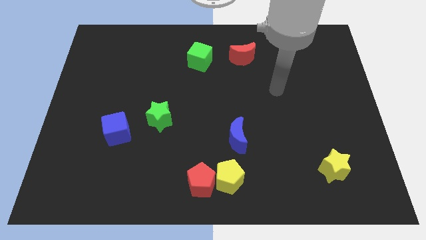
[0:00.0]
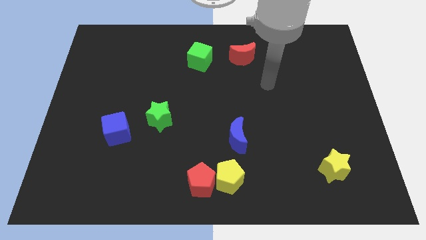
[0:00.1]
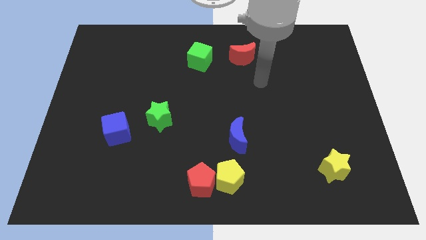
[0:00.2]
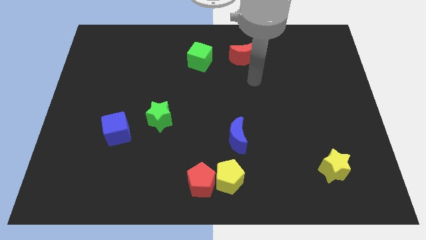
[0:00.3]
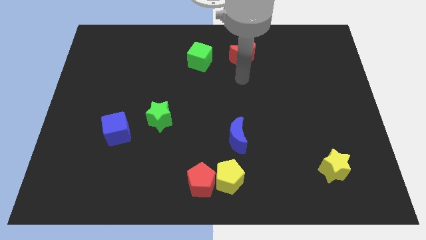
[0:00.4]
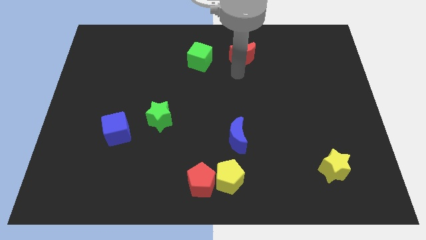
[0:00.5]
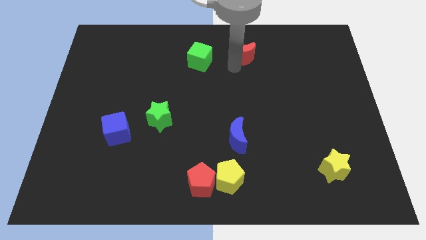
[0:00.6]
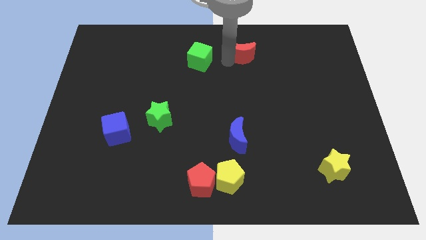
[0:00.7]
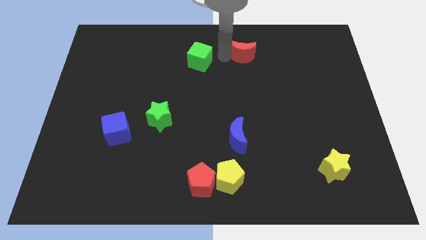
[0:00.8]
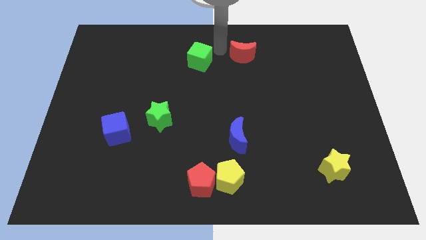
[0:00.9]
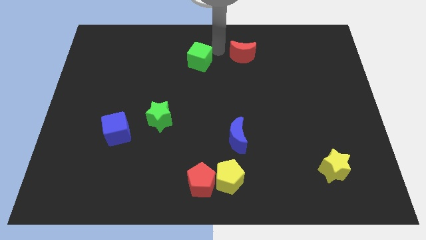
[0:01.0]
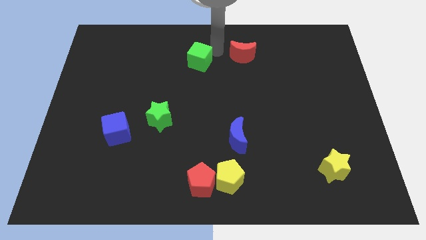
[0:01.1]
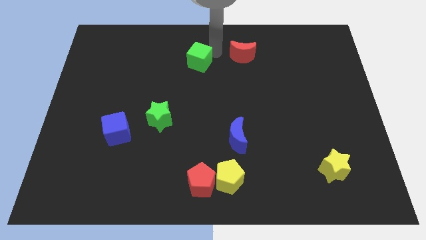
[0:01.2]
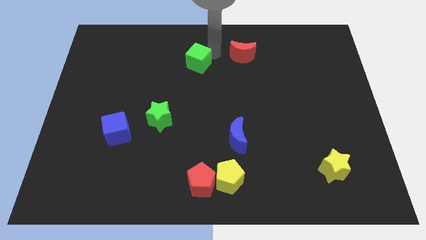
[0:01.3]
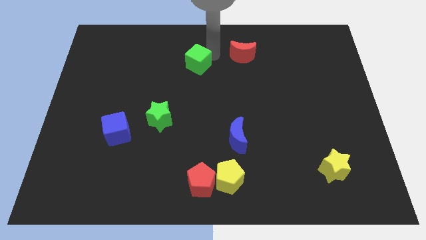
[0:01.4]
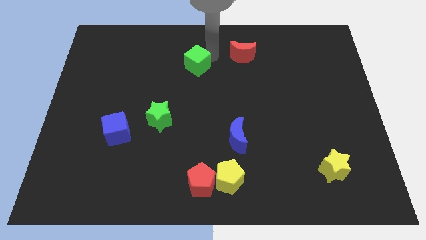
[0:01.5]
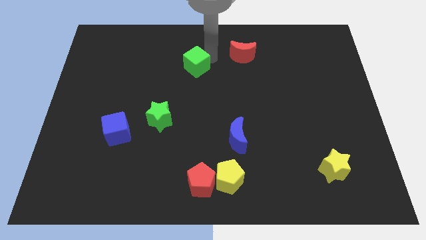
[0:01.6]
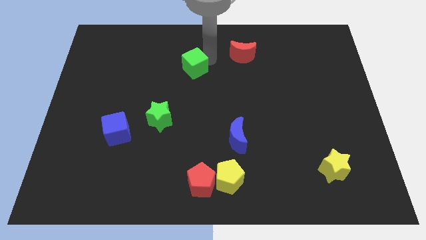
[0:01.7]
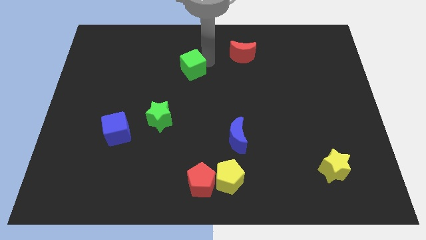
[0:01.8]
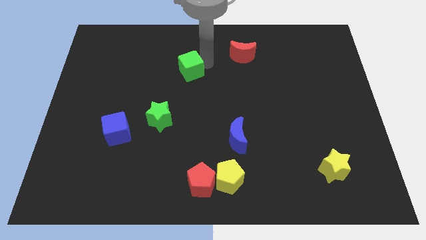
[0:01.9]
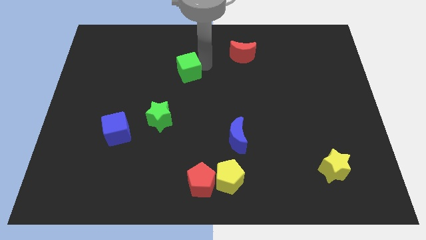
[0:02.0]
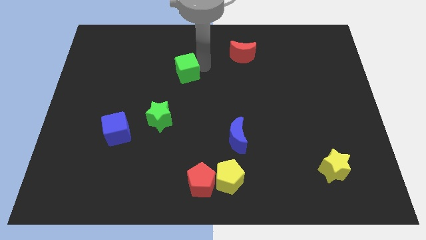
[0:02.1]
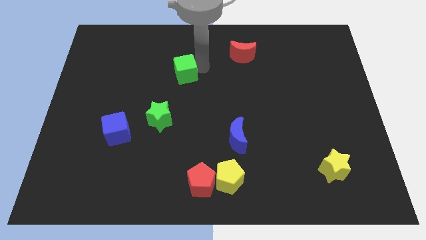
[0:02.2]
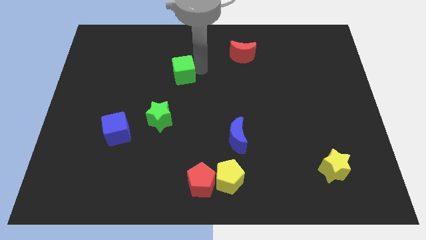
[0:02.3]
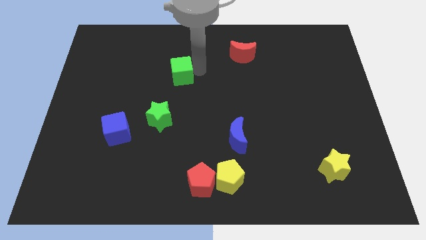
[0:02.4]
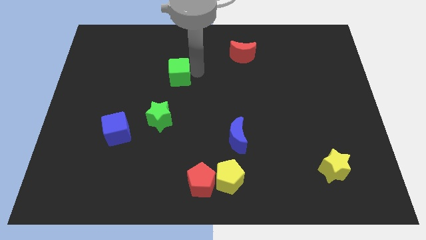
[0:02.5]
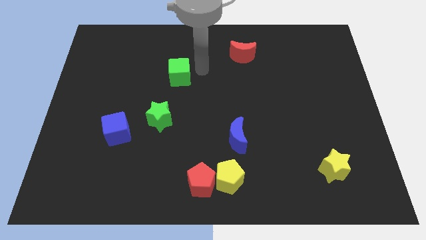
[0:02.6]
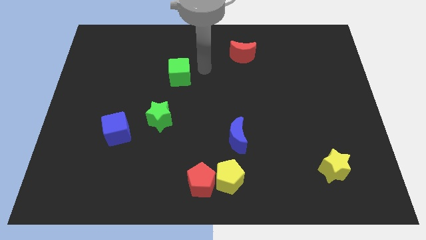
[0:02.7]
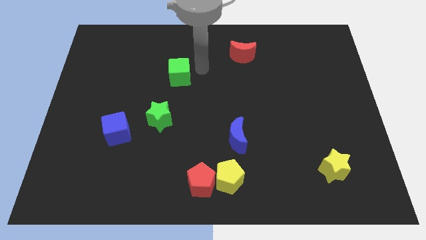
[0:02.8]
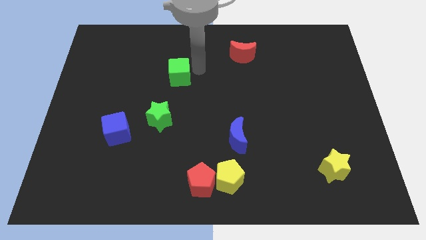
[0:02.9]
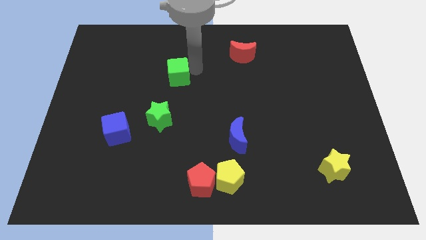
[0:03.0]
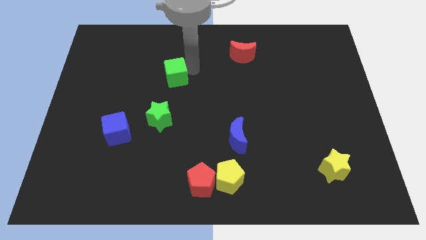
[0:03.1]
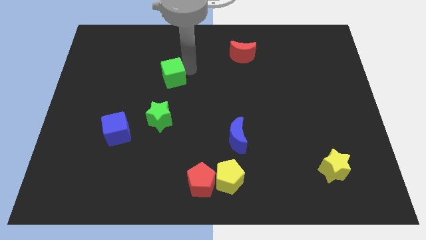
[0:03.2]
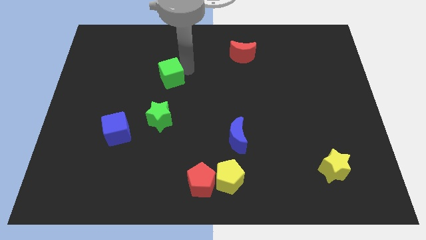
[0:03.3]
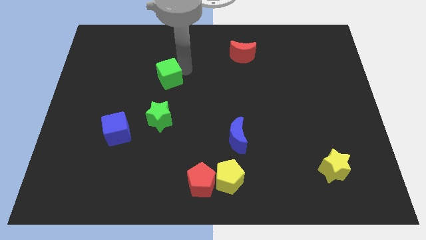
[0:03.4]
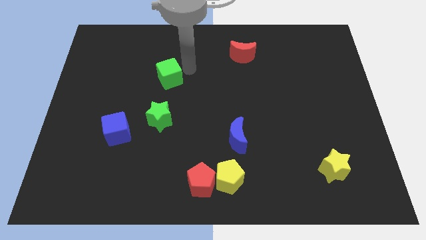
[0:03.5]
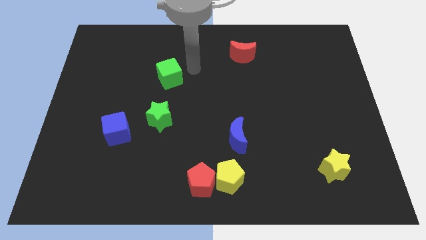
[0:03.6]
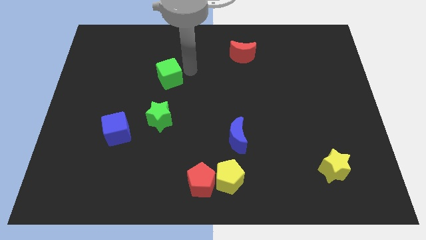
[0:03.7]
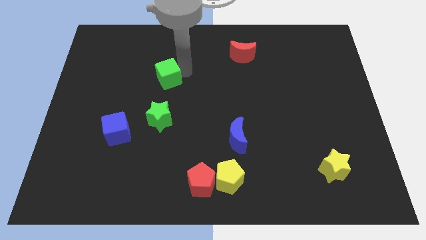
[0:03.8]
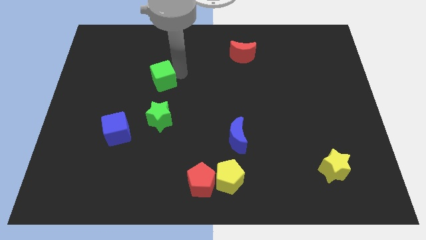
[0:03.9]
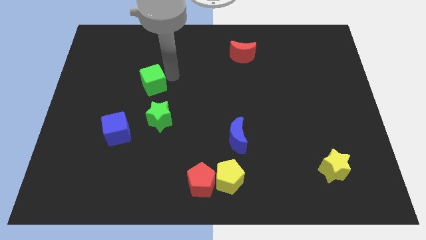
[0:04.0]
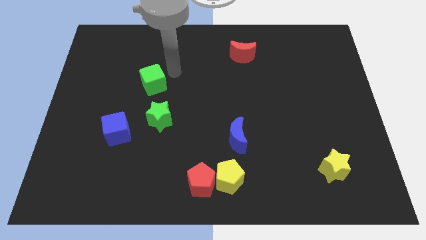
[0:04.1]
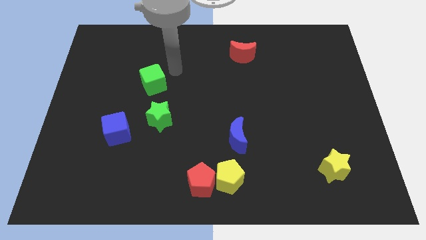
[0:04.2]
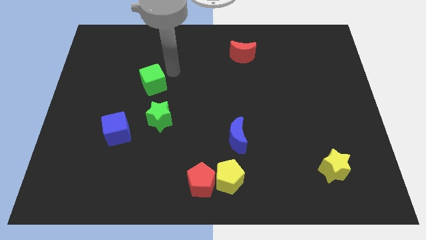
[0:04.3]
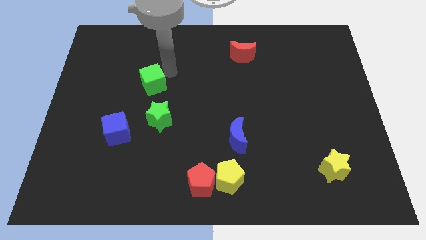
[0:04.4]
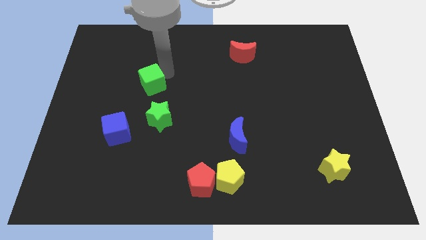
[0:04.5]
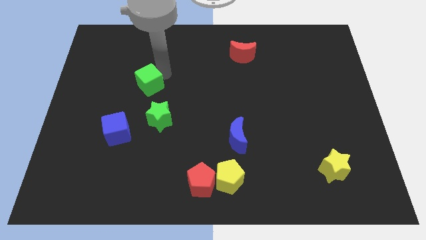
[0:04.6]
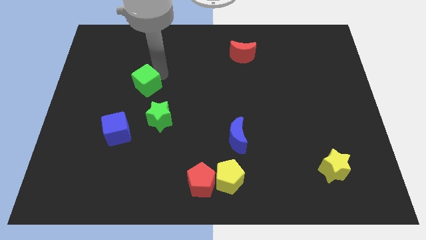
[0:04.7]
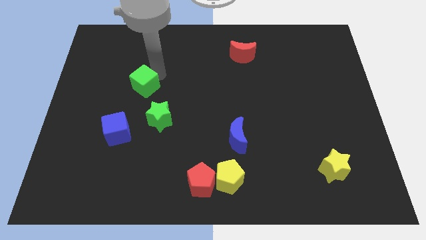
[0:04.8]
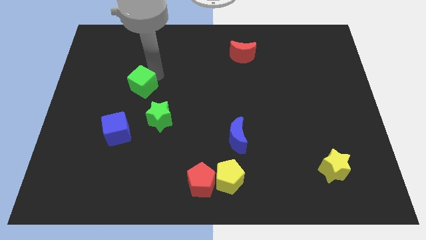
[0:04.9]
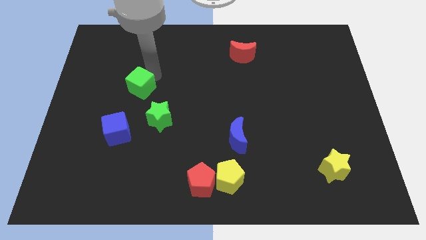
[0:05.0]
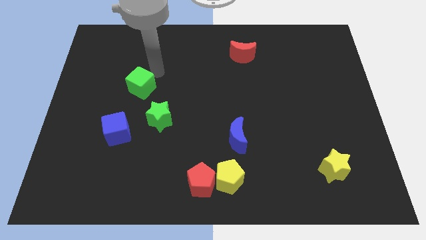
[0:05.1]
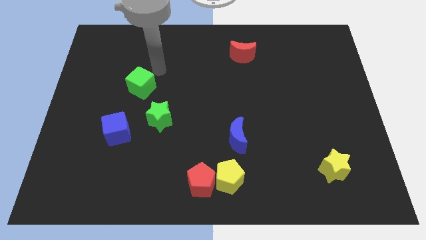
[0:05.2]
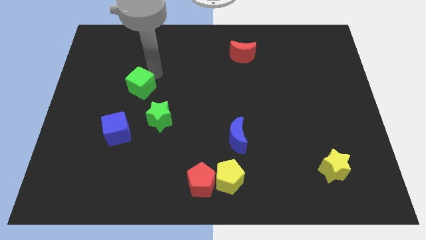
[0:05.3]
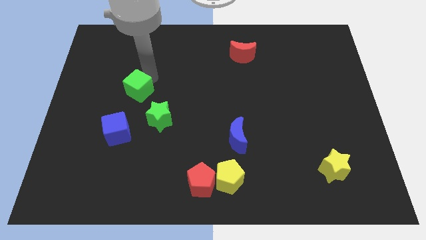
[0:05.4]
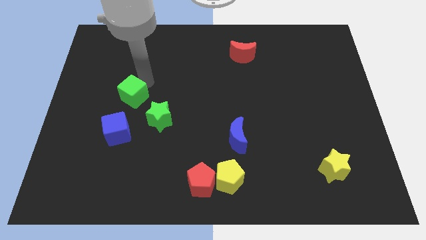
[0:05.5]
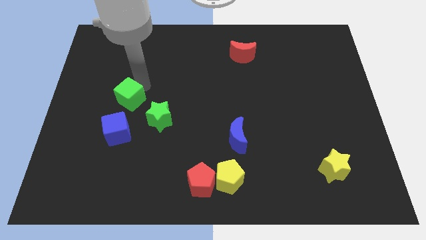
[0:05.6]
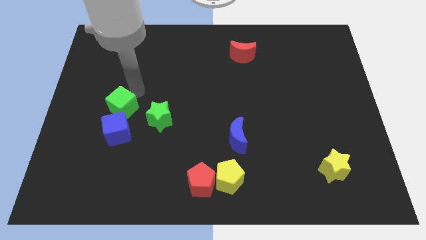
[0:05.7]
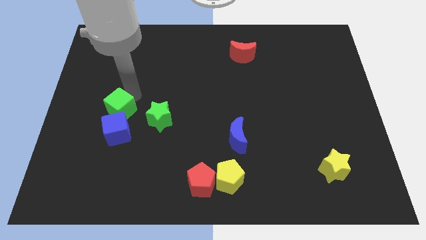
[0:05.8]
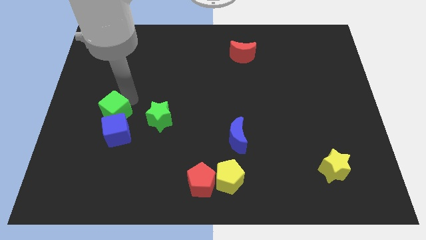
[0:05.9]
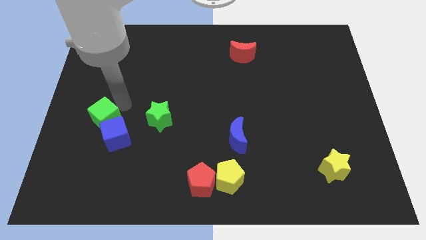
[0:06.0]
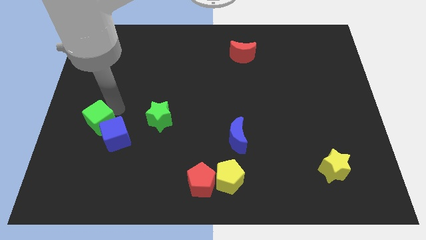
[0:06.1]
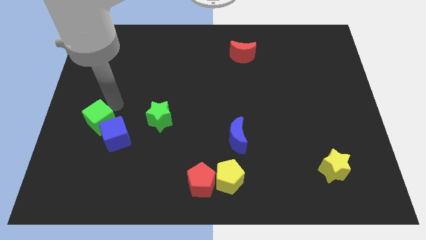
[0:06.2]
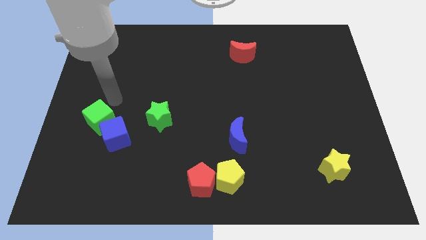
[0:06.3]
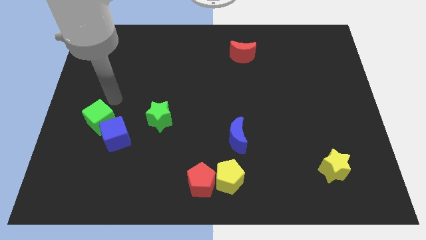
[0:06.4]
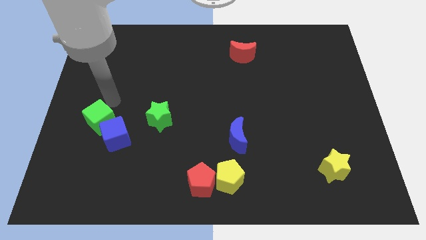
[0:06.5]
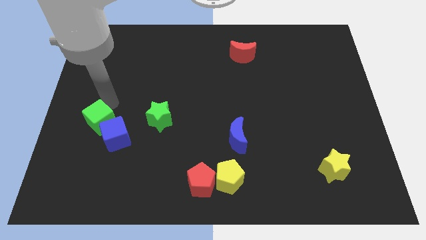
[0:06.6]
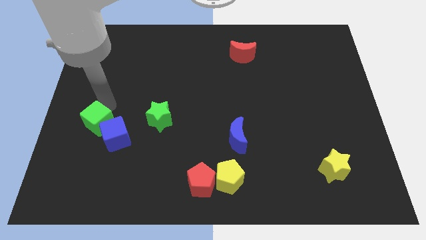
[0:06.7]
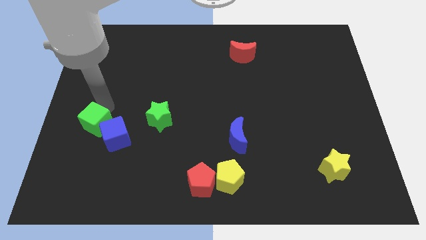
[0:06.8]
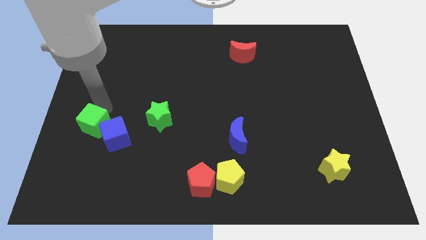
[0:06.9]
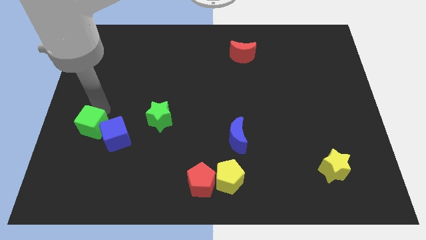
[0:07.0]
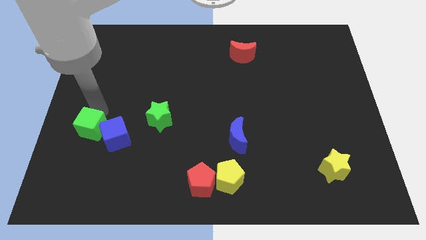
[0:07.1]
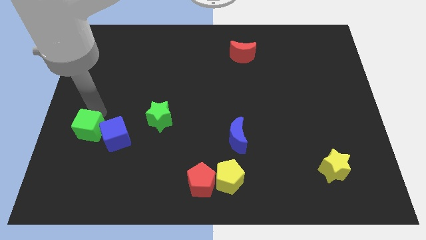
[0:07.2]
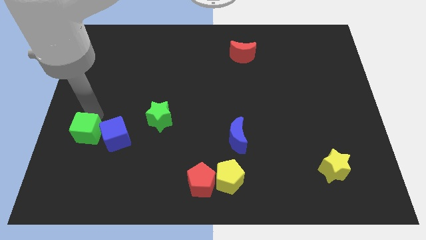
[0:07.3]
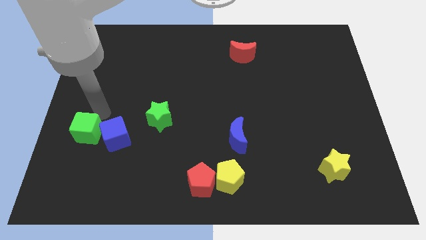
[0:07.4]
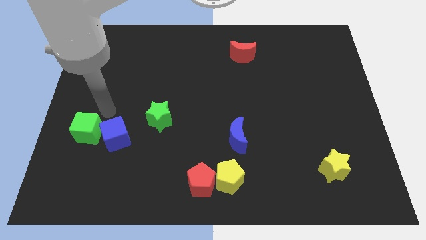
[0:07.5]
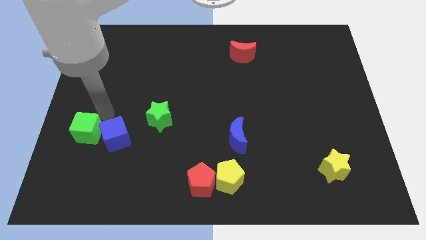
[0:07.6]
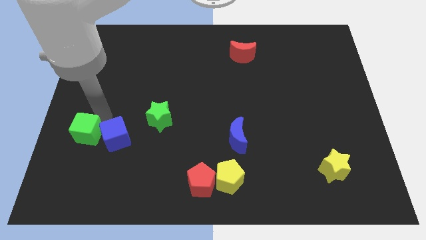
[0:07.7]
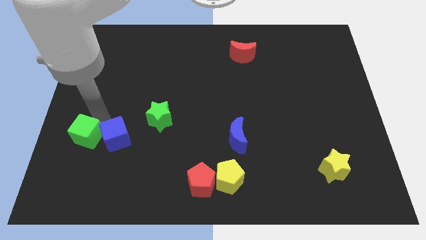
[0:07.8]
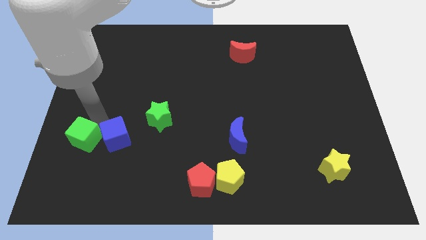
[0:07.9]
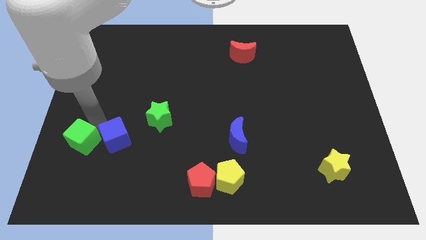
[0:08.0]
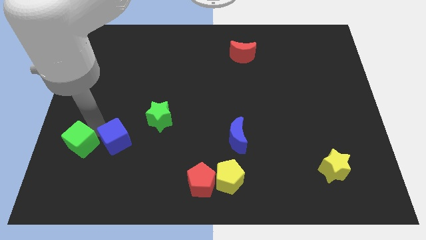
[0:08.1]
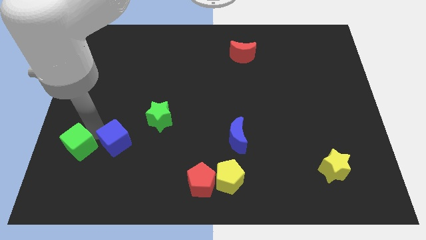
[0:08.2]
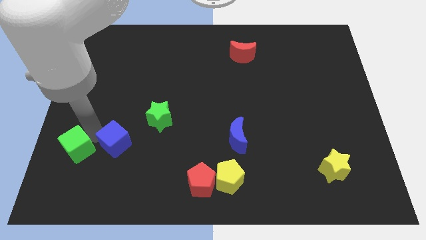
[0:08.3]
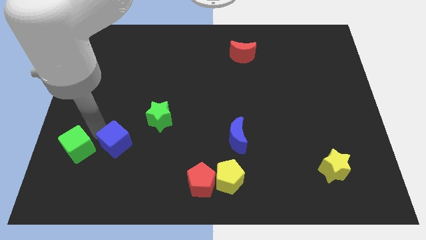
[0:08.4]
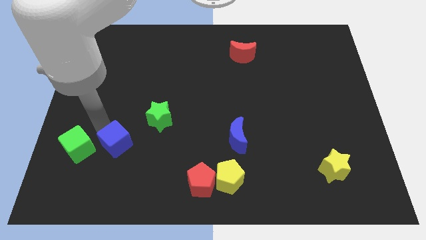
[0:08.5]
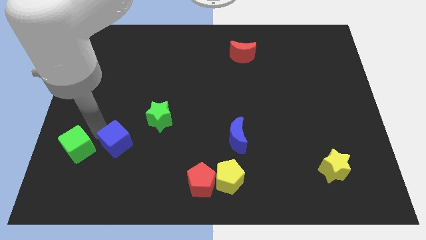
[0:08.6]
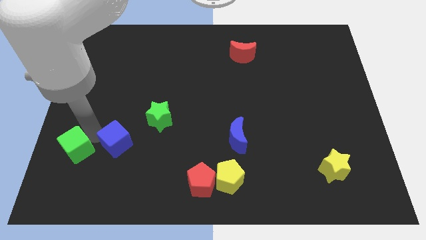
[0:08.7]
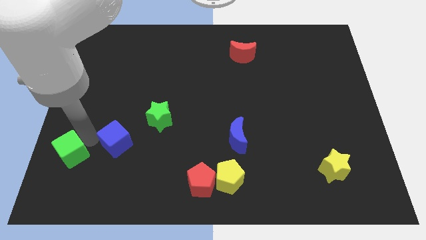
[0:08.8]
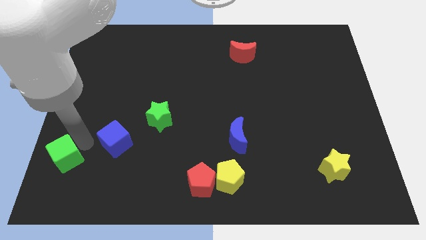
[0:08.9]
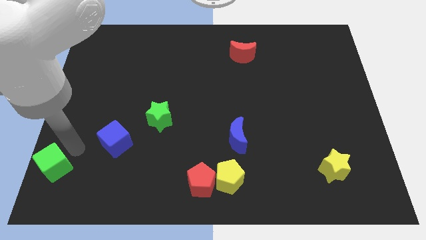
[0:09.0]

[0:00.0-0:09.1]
put the green cube to the bottom left of the board
